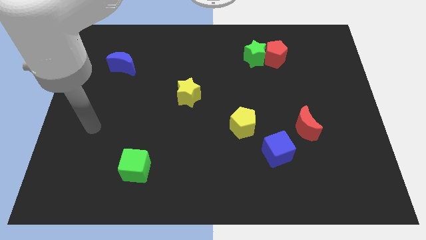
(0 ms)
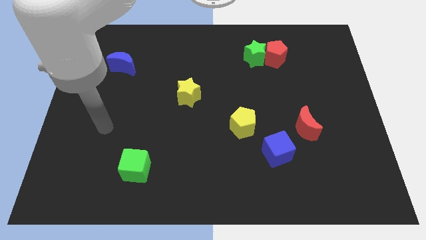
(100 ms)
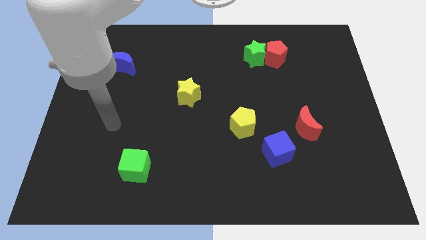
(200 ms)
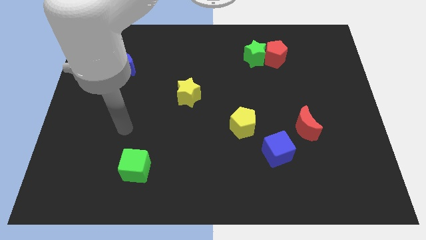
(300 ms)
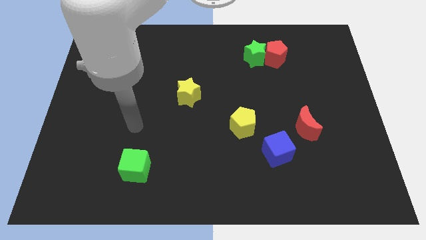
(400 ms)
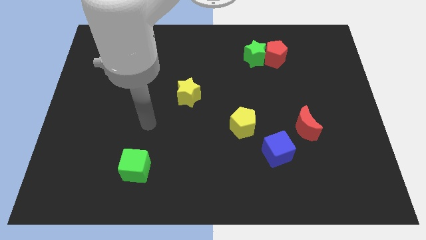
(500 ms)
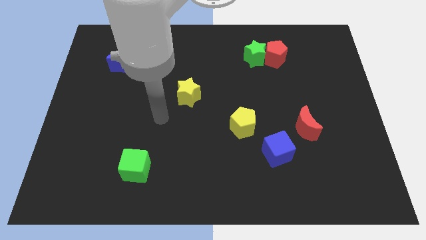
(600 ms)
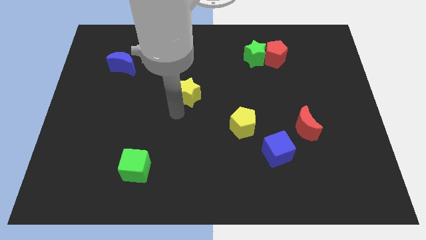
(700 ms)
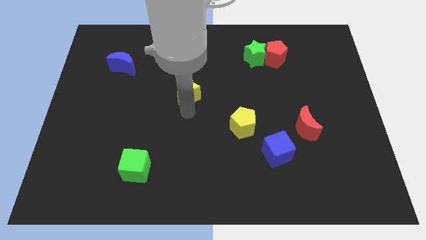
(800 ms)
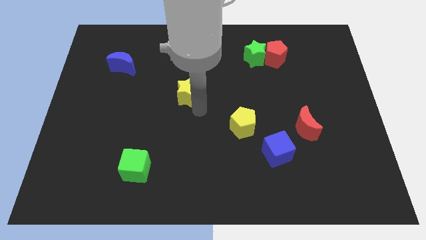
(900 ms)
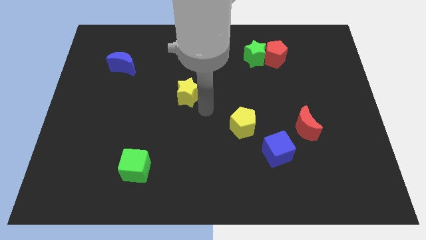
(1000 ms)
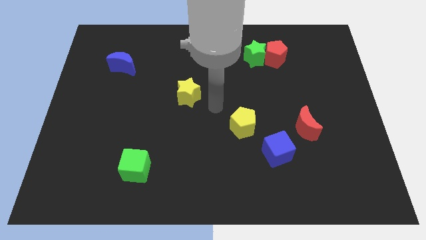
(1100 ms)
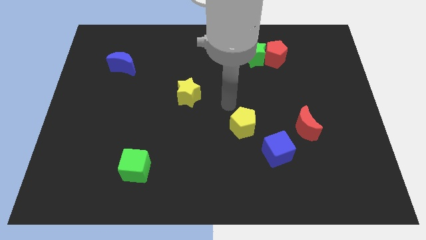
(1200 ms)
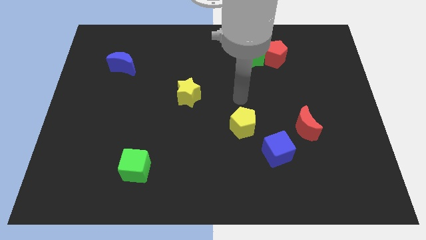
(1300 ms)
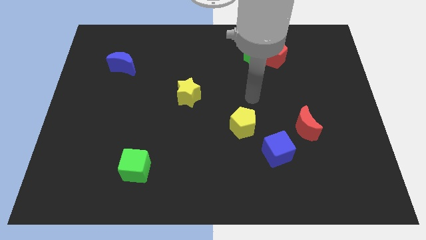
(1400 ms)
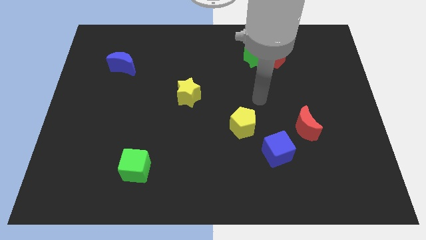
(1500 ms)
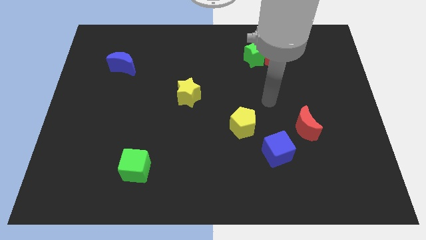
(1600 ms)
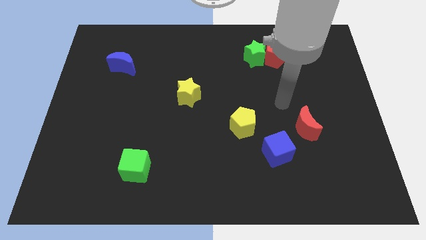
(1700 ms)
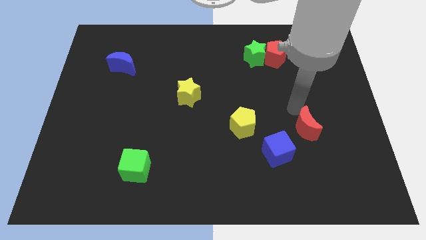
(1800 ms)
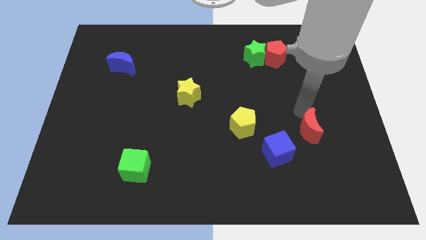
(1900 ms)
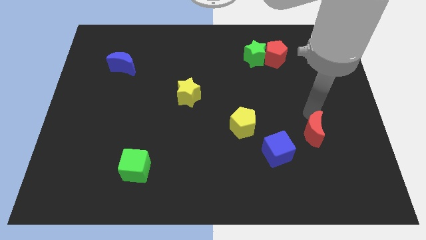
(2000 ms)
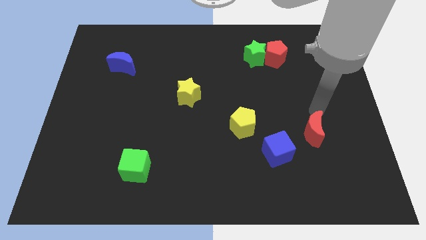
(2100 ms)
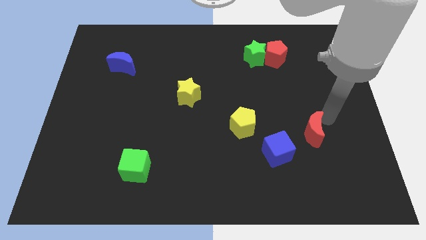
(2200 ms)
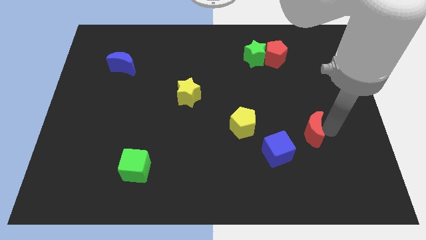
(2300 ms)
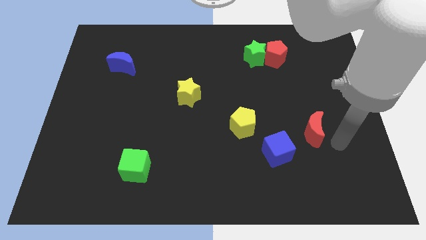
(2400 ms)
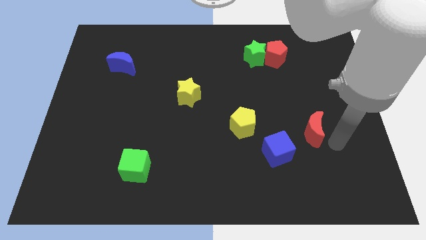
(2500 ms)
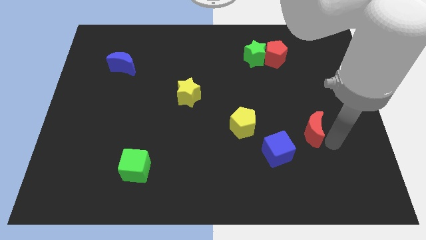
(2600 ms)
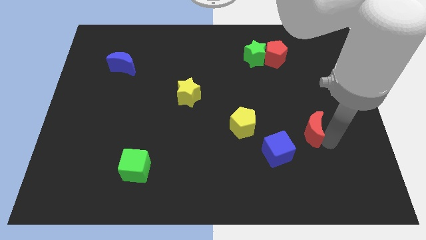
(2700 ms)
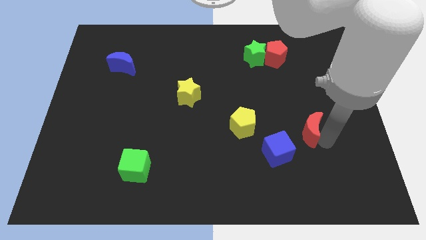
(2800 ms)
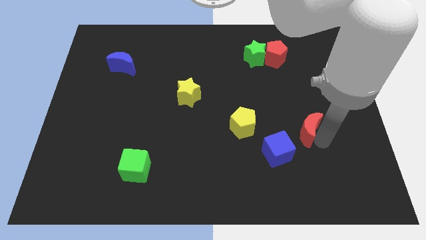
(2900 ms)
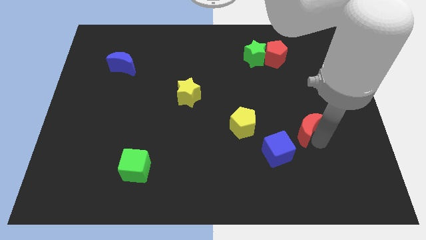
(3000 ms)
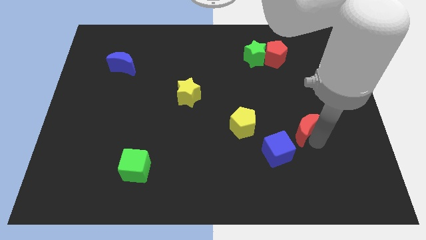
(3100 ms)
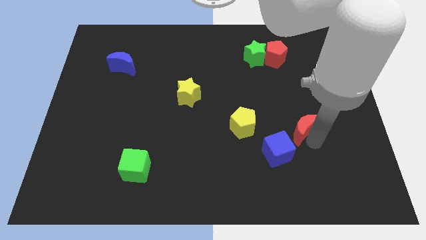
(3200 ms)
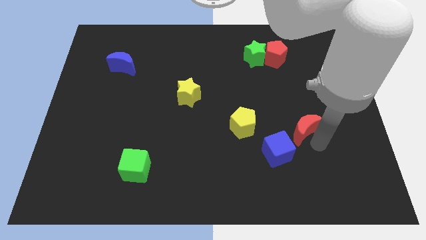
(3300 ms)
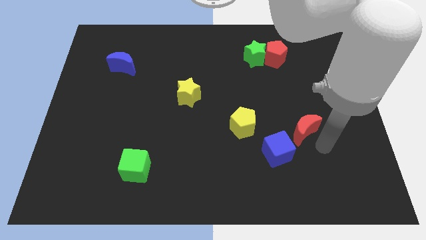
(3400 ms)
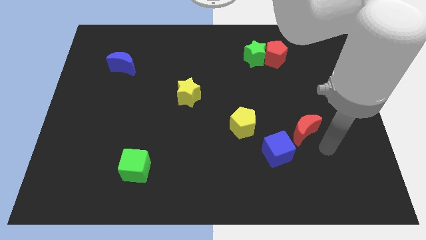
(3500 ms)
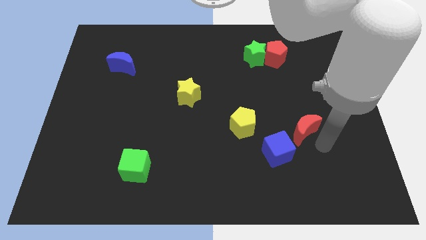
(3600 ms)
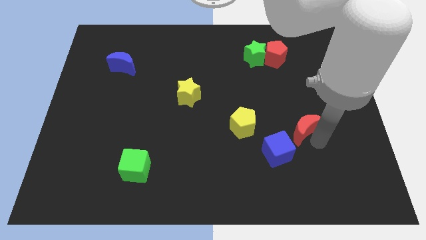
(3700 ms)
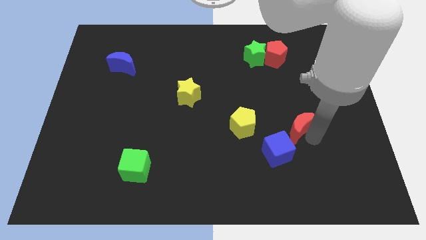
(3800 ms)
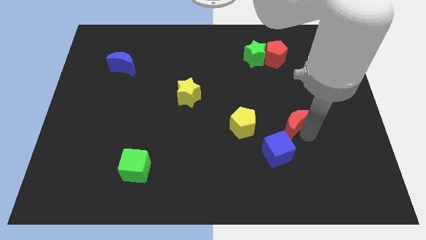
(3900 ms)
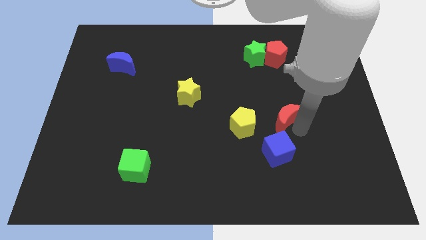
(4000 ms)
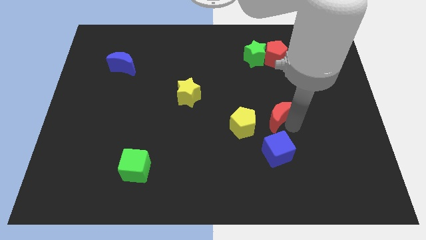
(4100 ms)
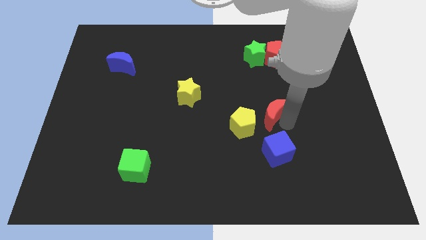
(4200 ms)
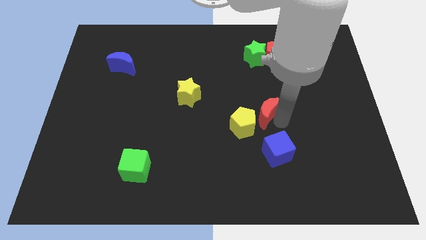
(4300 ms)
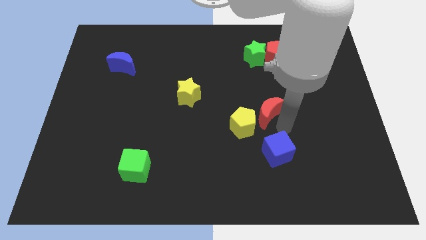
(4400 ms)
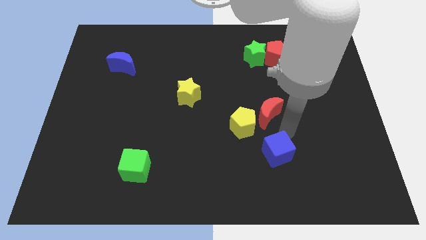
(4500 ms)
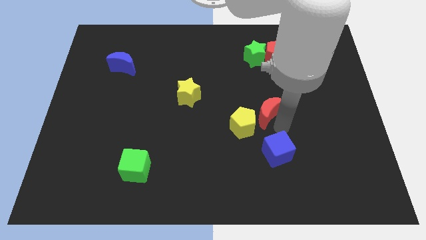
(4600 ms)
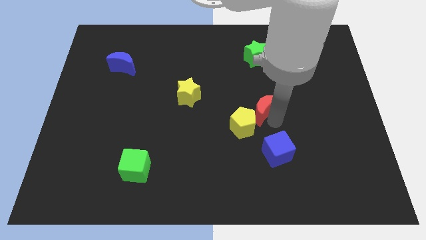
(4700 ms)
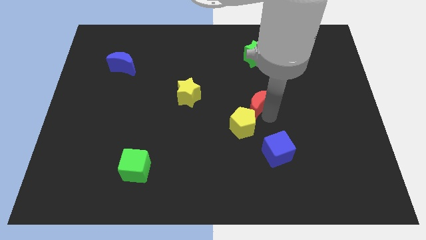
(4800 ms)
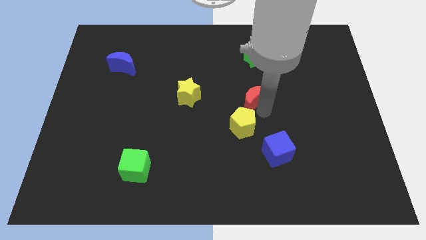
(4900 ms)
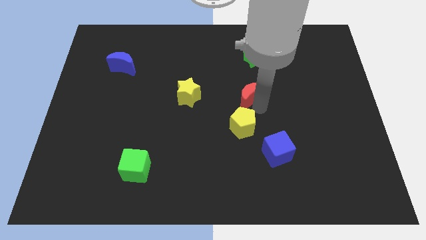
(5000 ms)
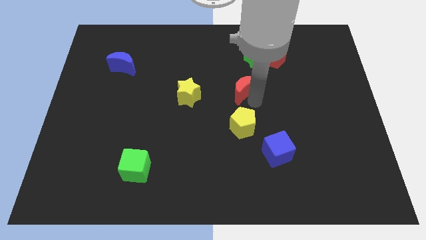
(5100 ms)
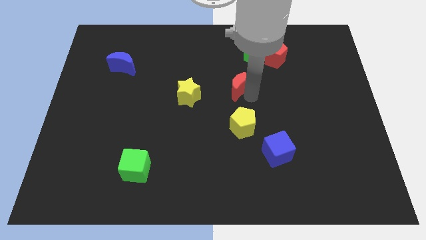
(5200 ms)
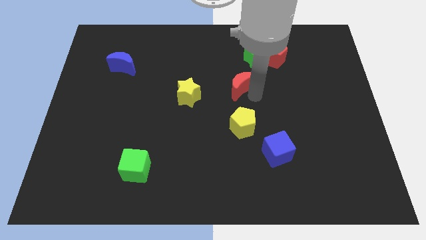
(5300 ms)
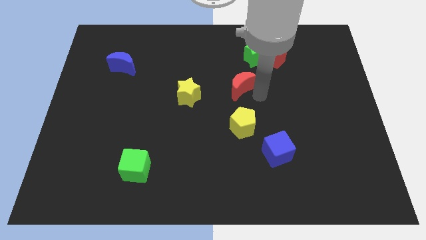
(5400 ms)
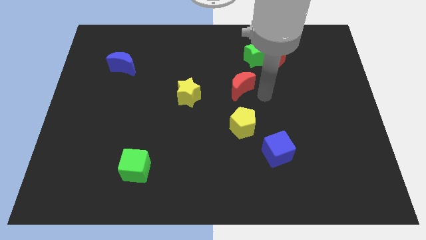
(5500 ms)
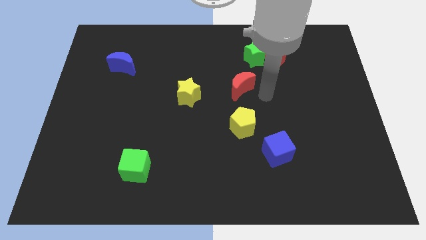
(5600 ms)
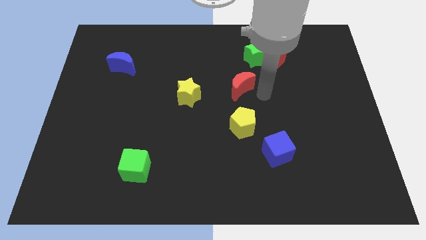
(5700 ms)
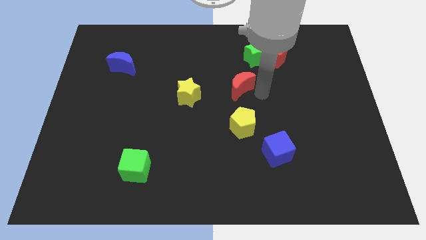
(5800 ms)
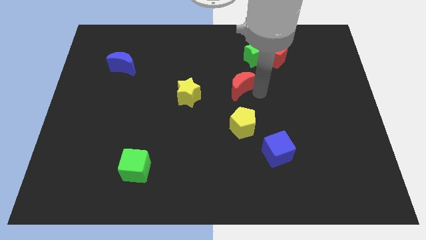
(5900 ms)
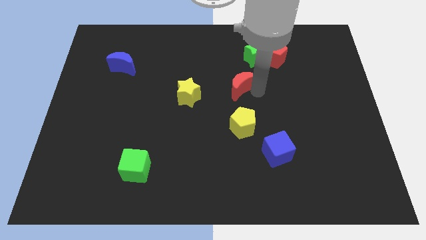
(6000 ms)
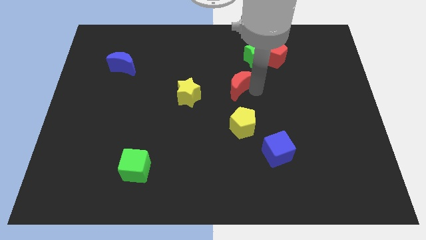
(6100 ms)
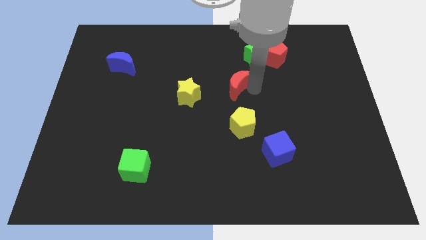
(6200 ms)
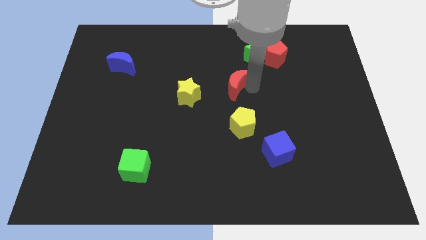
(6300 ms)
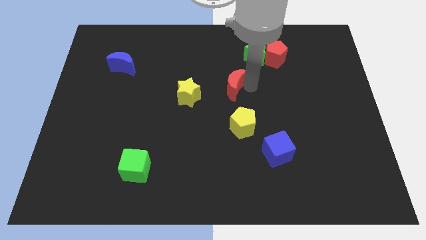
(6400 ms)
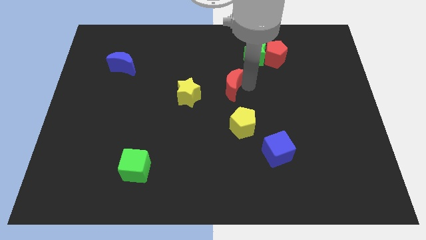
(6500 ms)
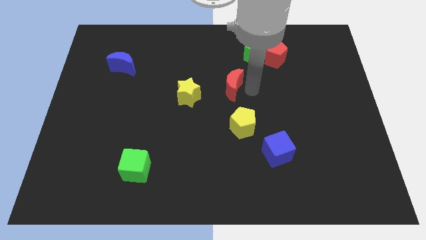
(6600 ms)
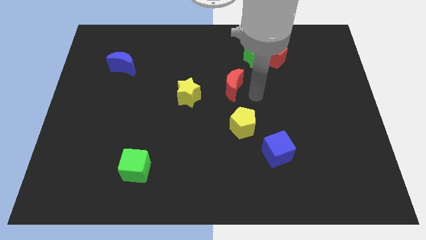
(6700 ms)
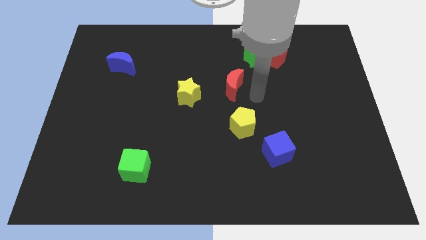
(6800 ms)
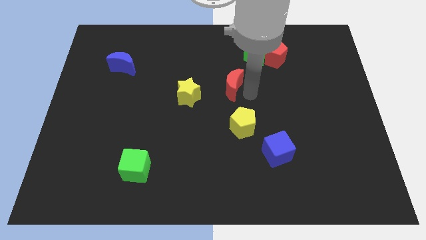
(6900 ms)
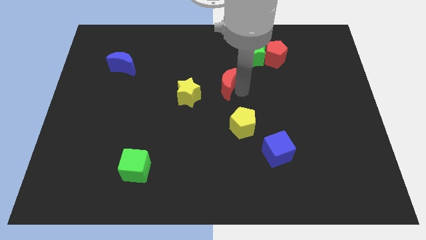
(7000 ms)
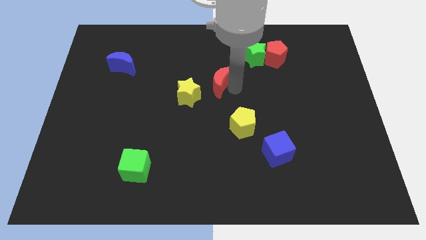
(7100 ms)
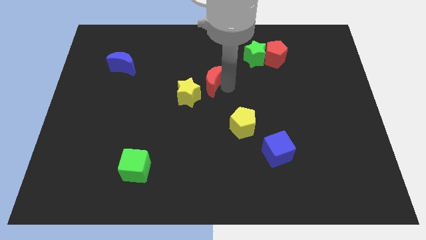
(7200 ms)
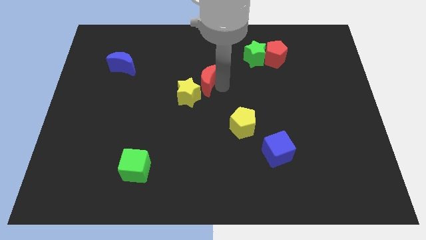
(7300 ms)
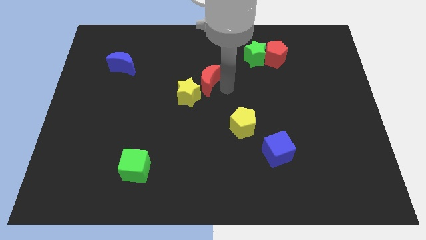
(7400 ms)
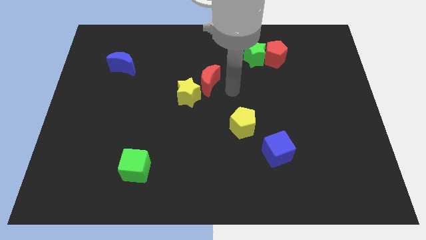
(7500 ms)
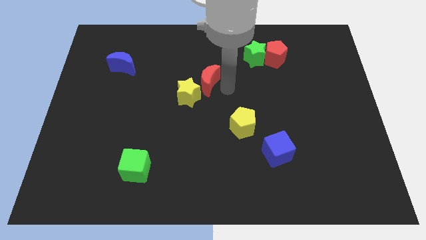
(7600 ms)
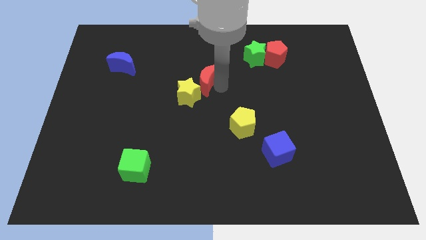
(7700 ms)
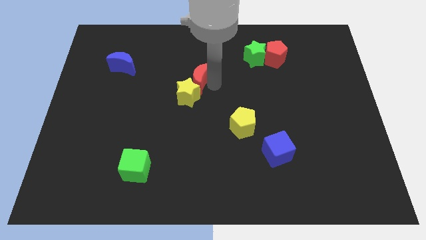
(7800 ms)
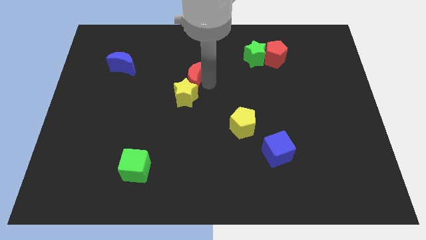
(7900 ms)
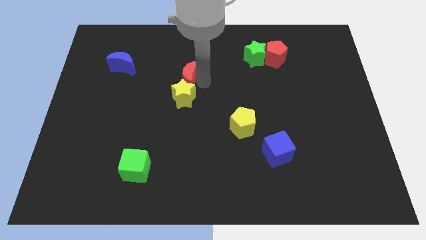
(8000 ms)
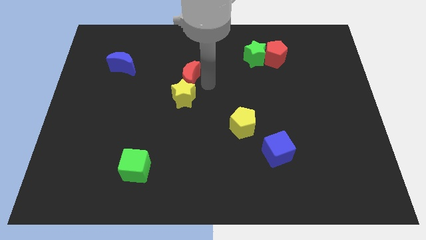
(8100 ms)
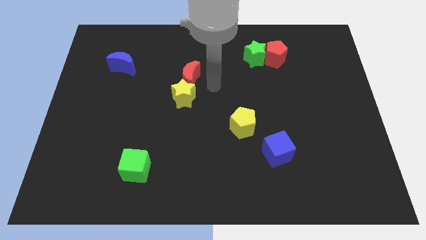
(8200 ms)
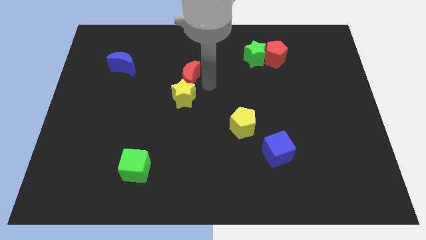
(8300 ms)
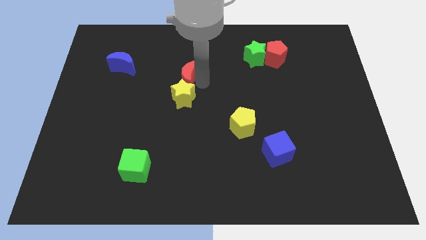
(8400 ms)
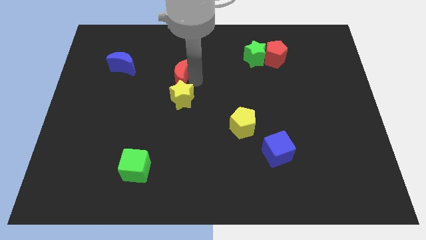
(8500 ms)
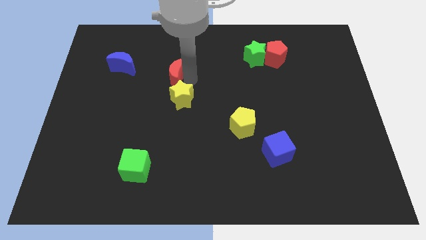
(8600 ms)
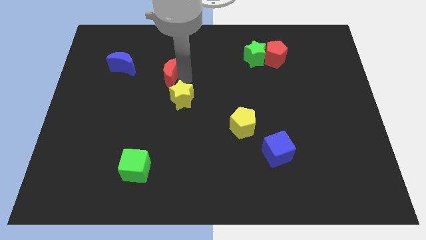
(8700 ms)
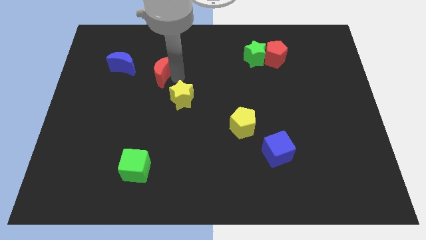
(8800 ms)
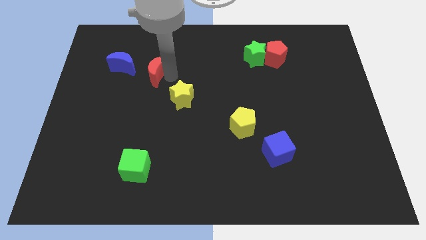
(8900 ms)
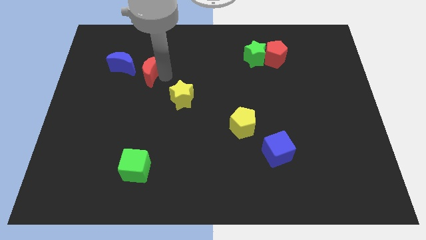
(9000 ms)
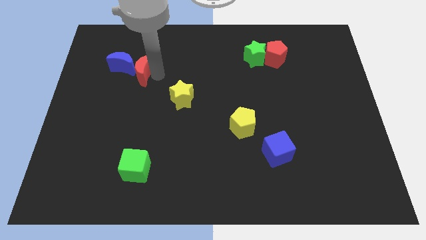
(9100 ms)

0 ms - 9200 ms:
slide the red moon towards the blue moon
